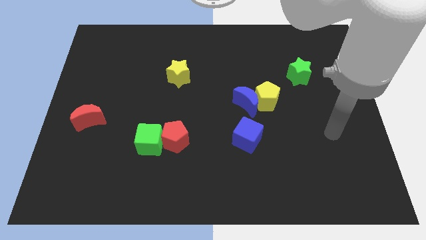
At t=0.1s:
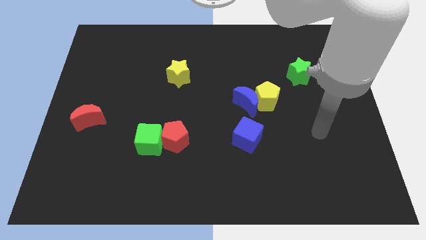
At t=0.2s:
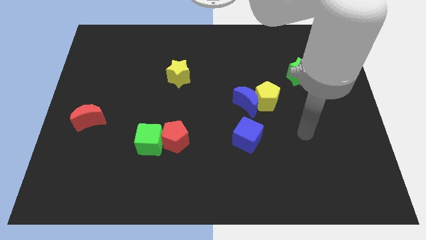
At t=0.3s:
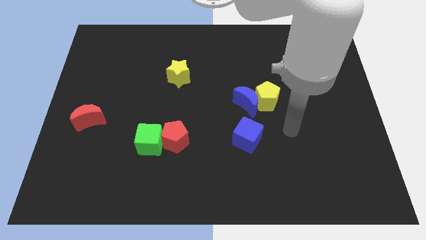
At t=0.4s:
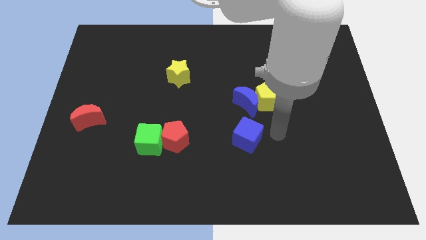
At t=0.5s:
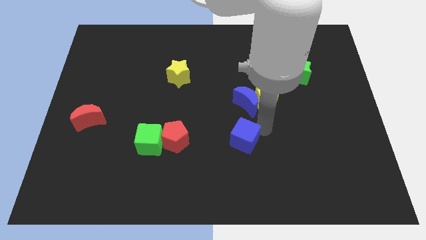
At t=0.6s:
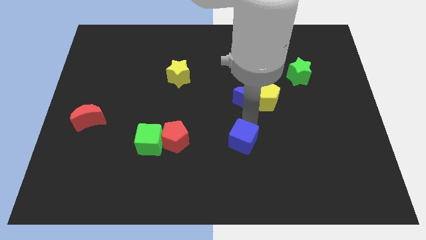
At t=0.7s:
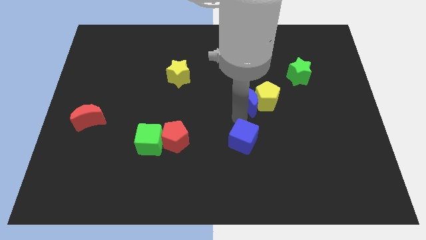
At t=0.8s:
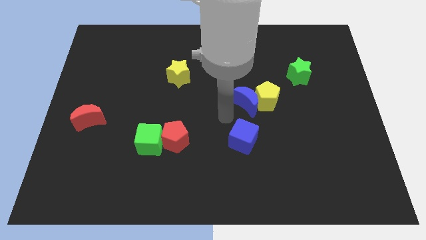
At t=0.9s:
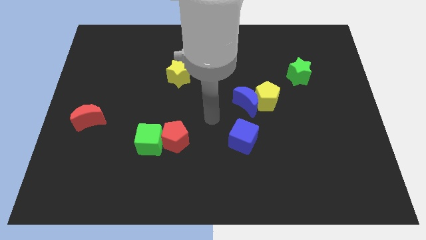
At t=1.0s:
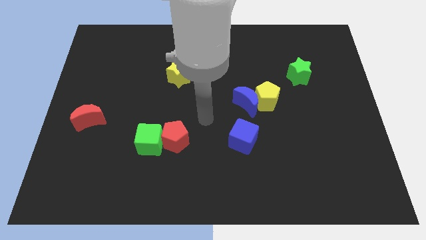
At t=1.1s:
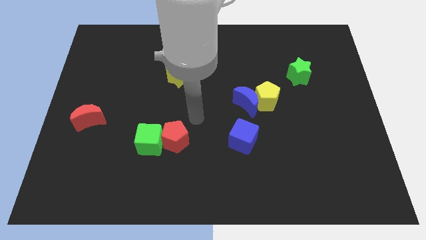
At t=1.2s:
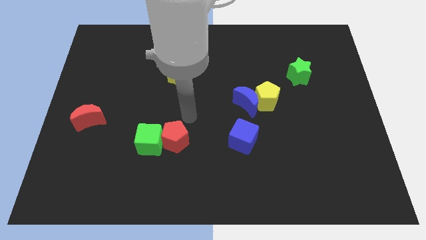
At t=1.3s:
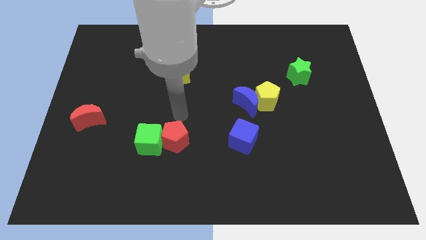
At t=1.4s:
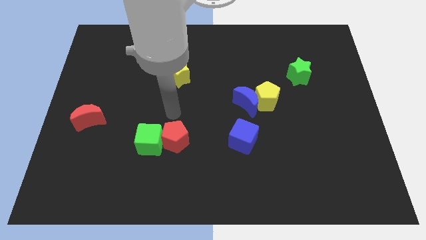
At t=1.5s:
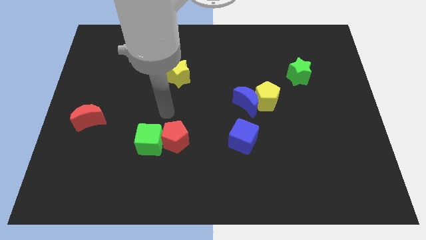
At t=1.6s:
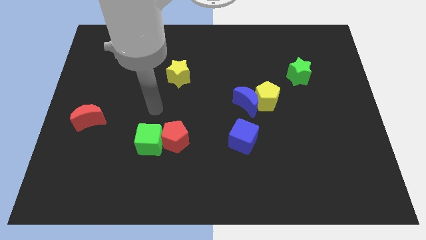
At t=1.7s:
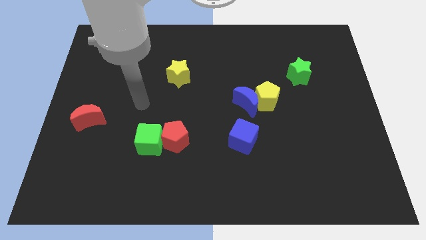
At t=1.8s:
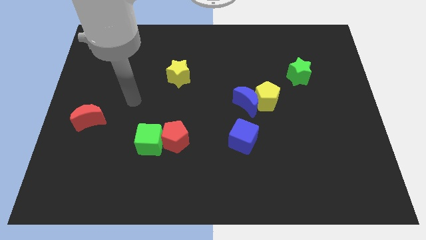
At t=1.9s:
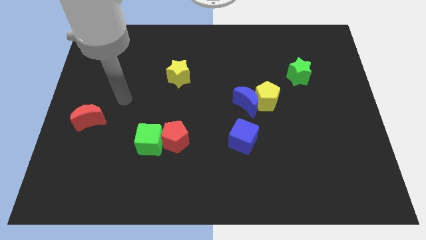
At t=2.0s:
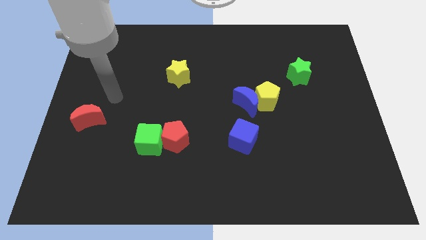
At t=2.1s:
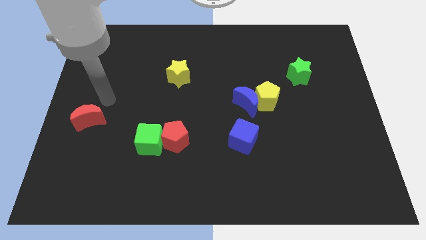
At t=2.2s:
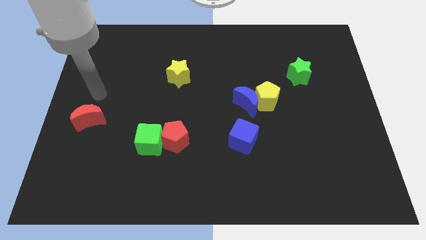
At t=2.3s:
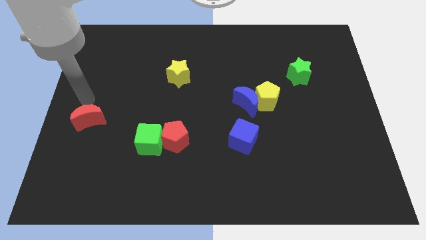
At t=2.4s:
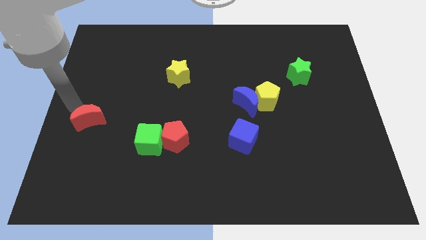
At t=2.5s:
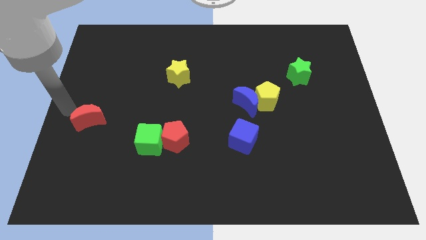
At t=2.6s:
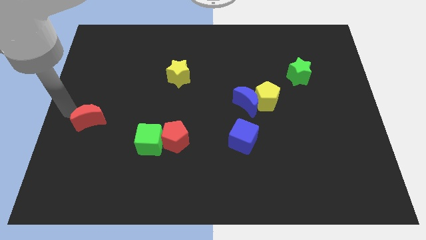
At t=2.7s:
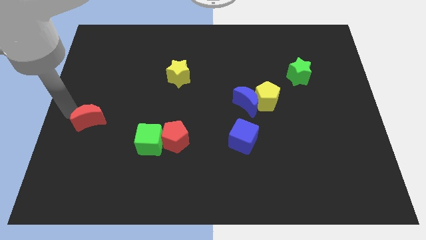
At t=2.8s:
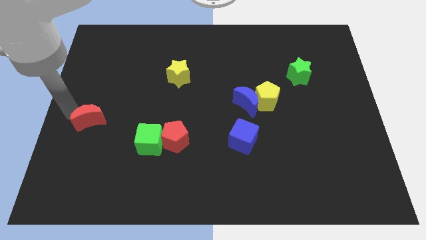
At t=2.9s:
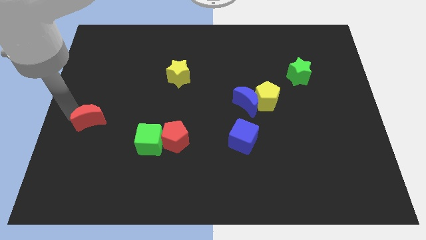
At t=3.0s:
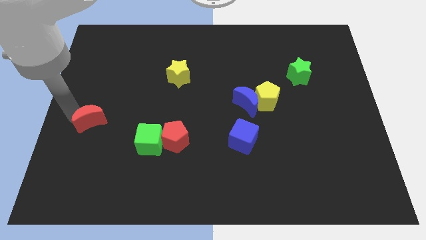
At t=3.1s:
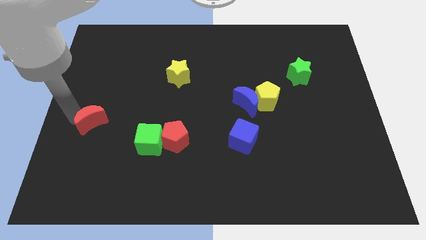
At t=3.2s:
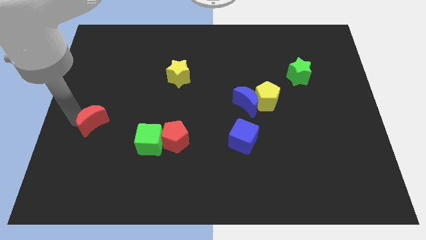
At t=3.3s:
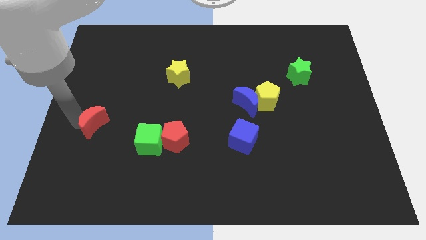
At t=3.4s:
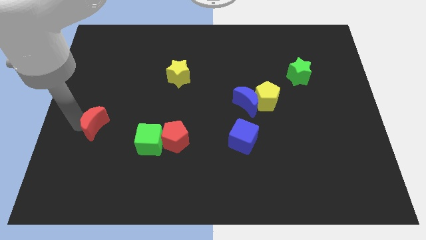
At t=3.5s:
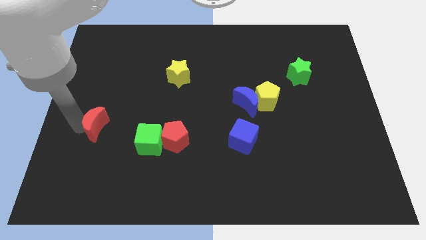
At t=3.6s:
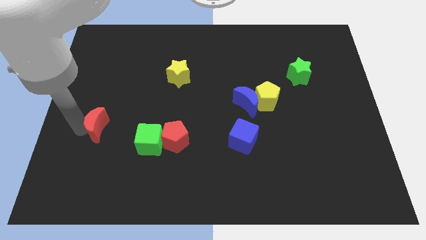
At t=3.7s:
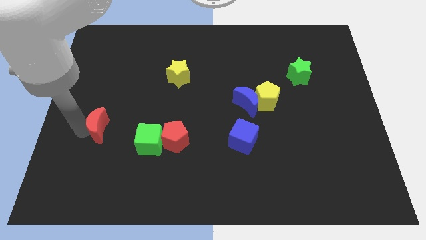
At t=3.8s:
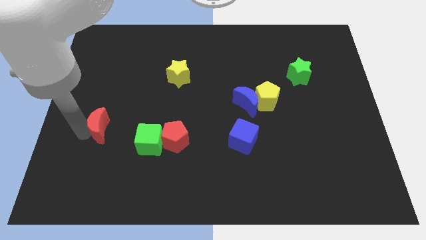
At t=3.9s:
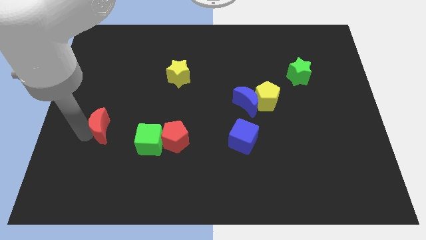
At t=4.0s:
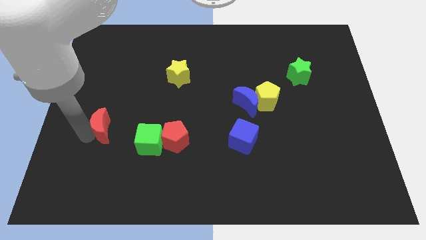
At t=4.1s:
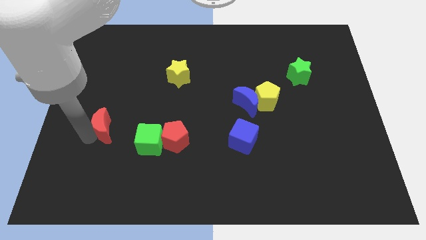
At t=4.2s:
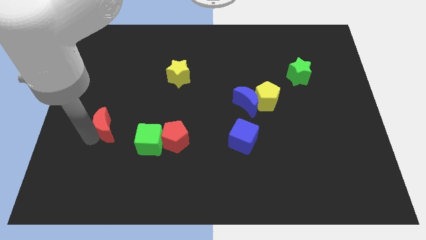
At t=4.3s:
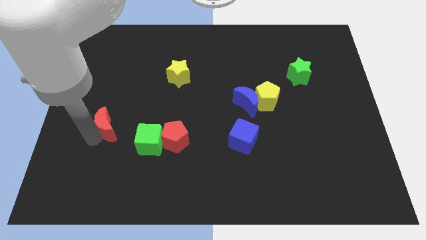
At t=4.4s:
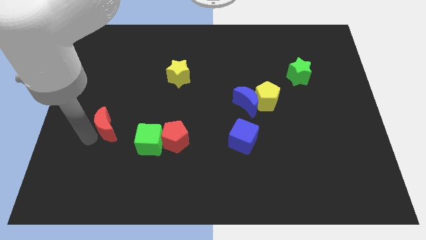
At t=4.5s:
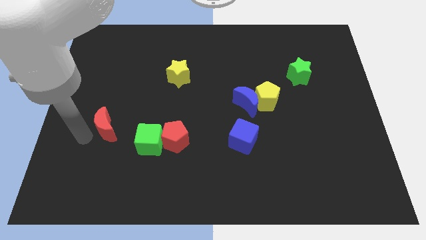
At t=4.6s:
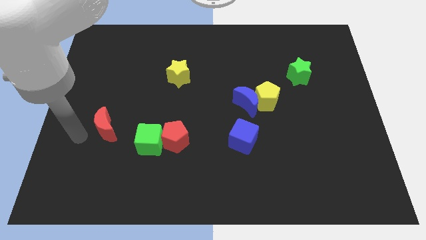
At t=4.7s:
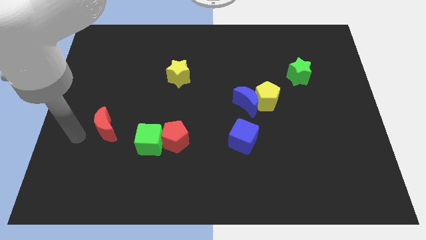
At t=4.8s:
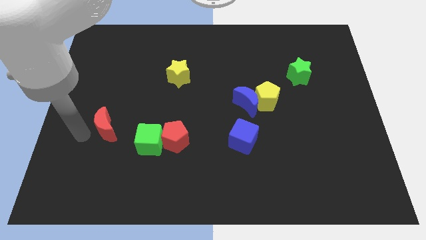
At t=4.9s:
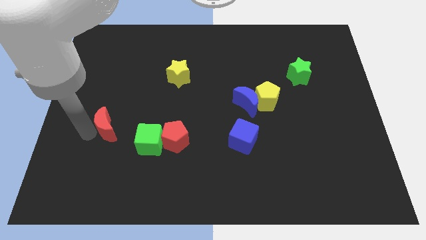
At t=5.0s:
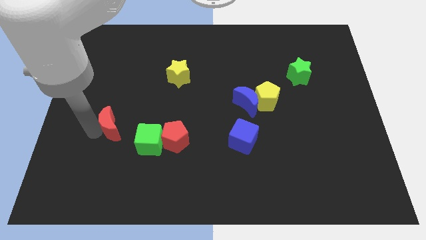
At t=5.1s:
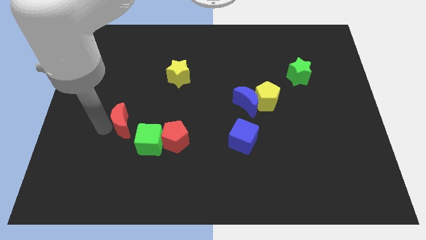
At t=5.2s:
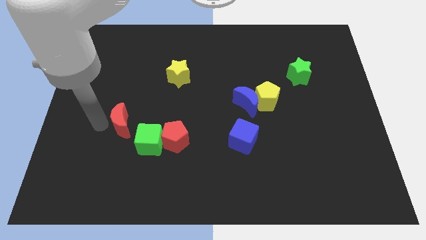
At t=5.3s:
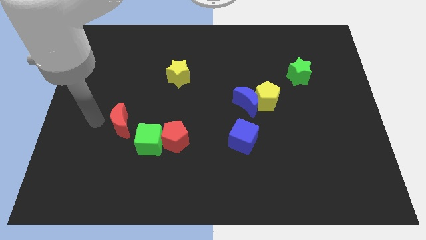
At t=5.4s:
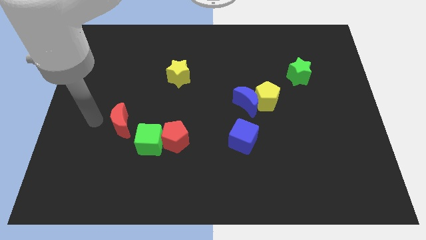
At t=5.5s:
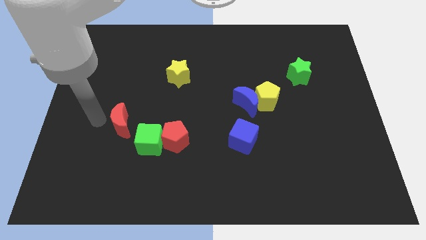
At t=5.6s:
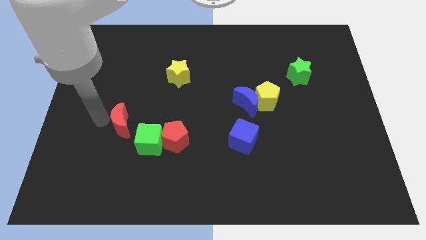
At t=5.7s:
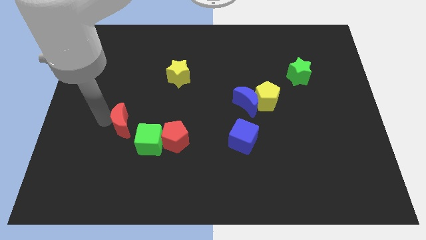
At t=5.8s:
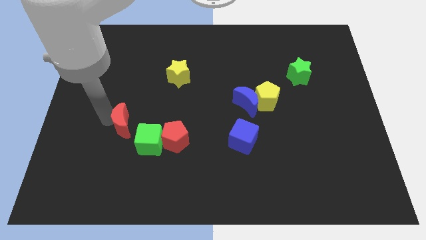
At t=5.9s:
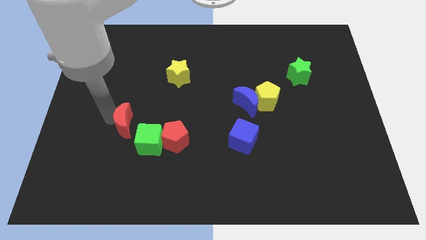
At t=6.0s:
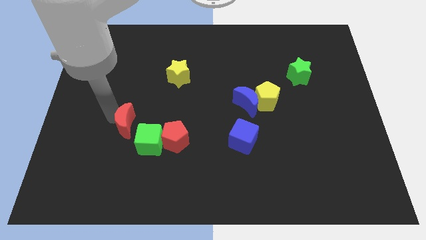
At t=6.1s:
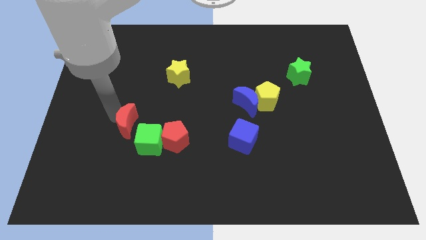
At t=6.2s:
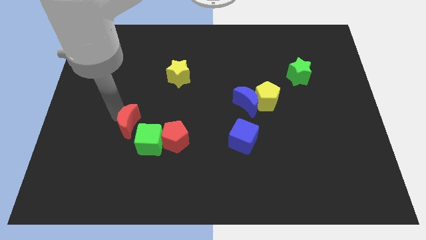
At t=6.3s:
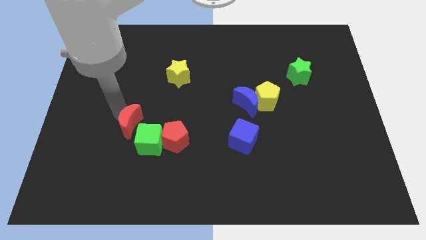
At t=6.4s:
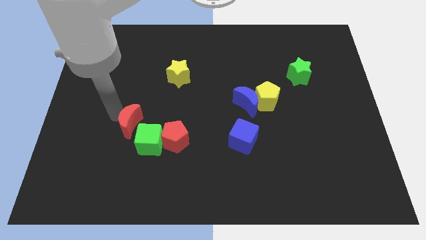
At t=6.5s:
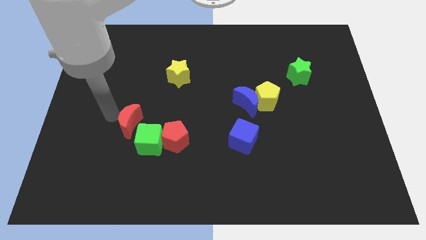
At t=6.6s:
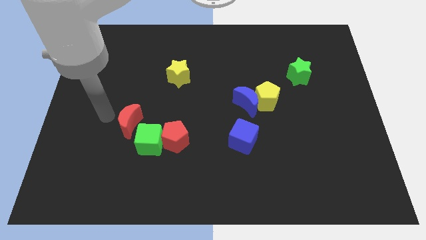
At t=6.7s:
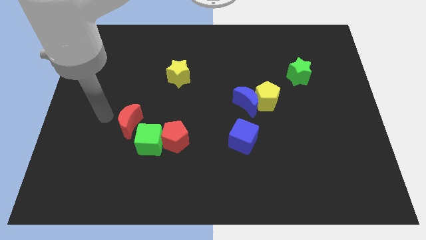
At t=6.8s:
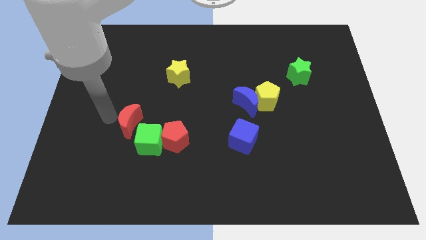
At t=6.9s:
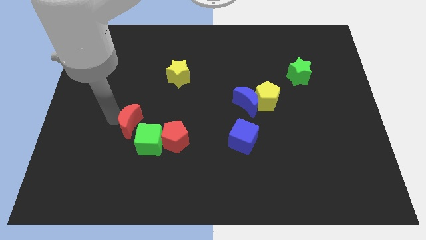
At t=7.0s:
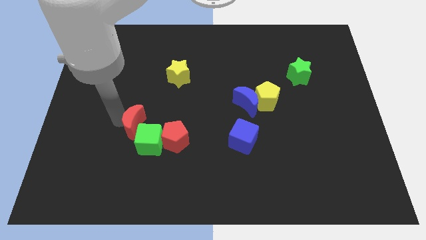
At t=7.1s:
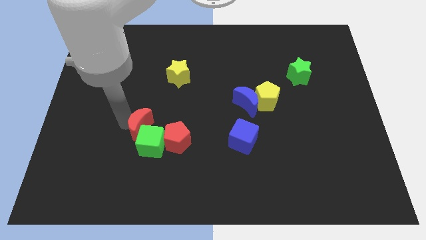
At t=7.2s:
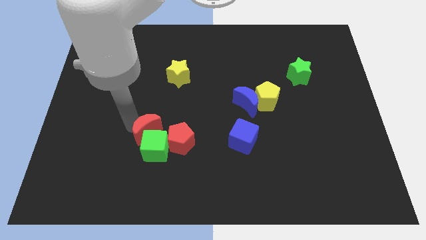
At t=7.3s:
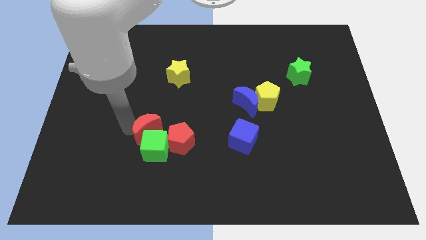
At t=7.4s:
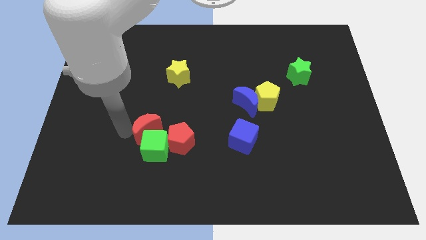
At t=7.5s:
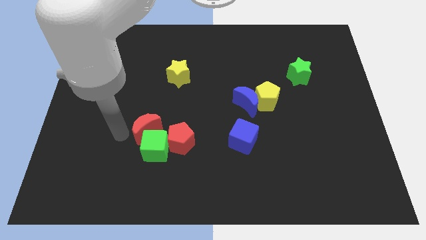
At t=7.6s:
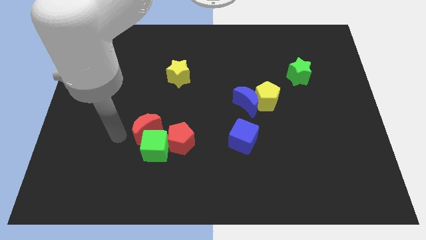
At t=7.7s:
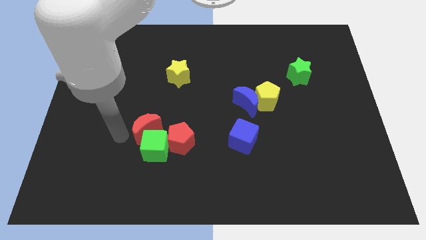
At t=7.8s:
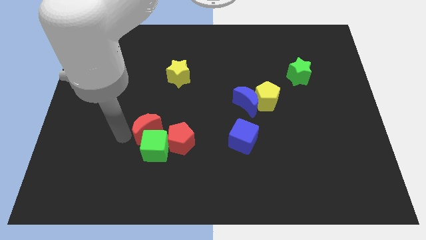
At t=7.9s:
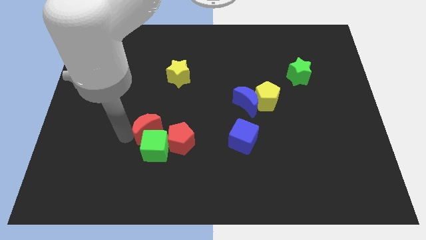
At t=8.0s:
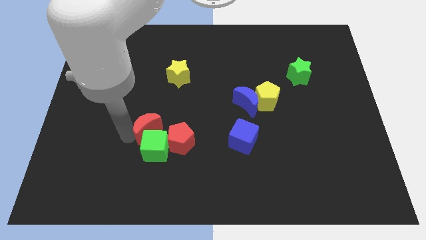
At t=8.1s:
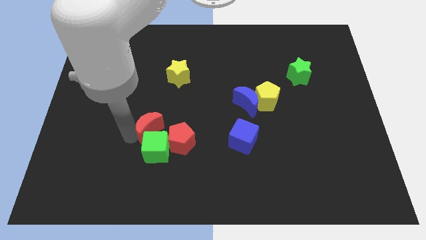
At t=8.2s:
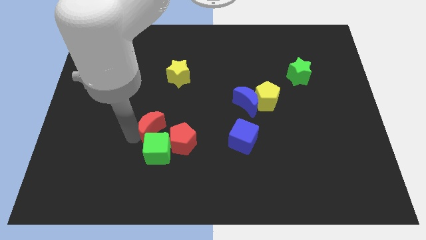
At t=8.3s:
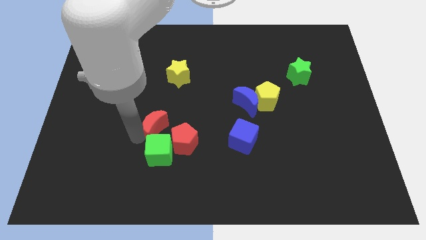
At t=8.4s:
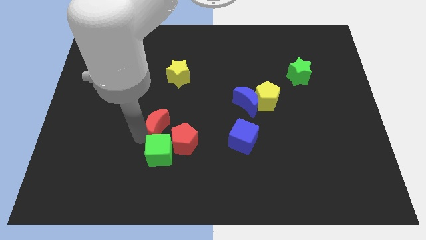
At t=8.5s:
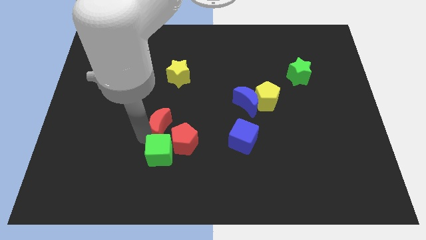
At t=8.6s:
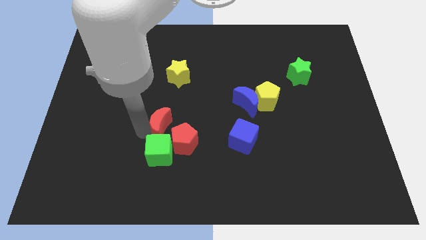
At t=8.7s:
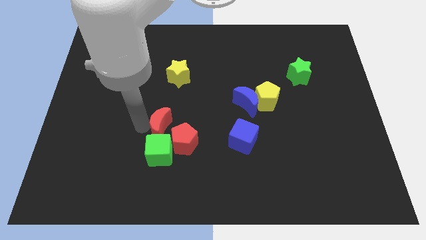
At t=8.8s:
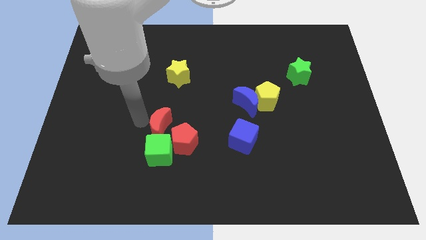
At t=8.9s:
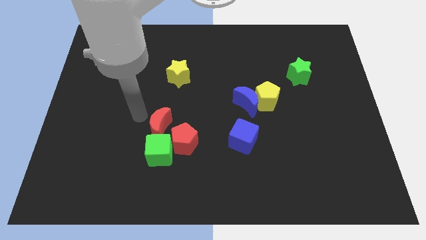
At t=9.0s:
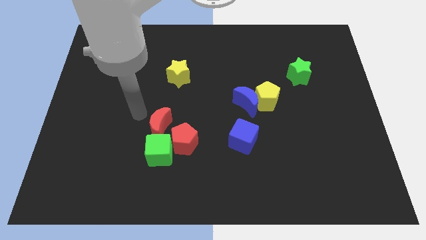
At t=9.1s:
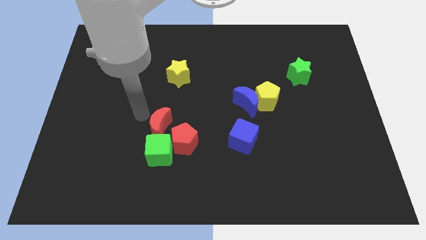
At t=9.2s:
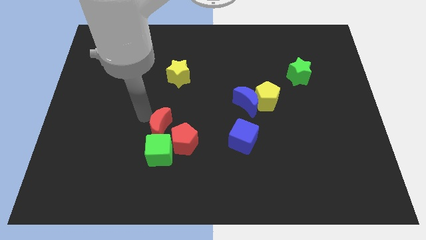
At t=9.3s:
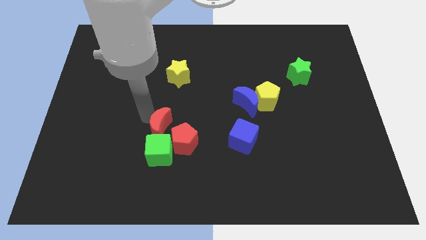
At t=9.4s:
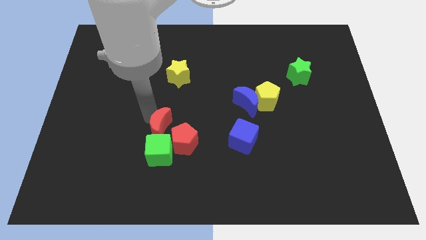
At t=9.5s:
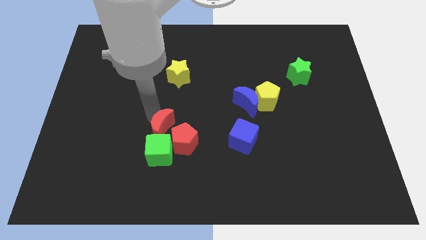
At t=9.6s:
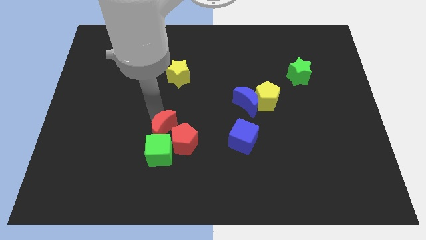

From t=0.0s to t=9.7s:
push the red moon next to the red pentagon
